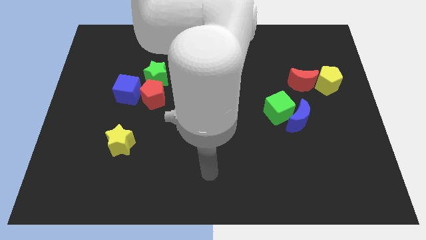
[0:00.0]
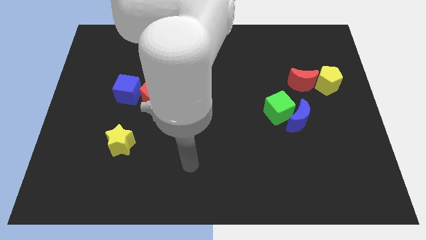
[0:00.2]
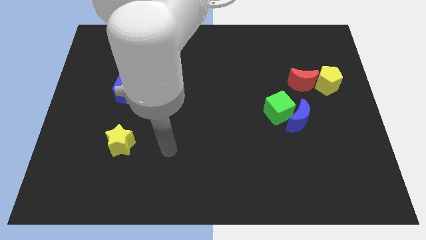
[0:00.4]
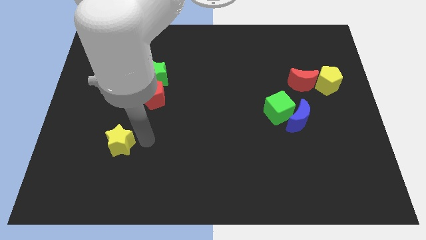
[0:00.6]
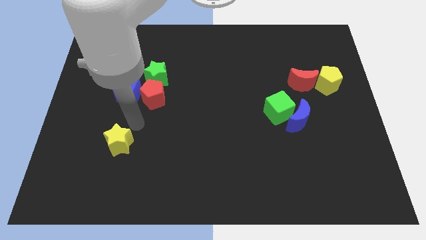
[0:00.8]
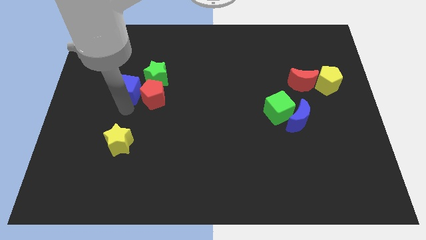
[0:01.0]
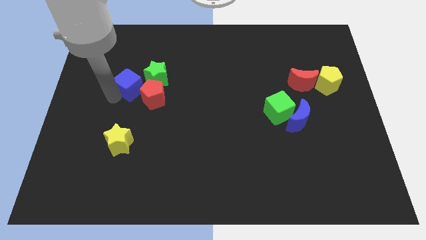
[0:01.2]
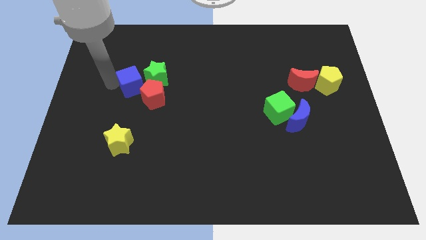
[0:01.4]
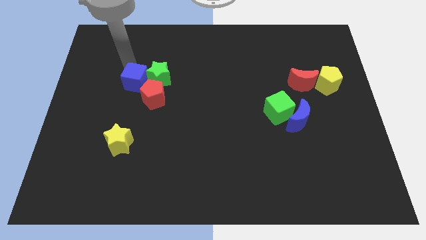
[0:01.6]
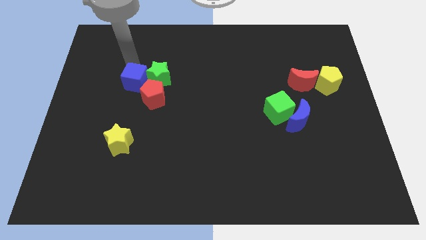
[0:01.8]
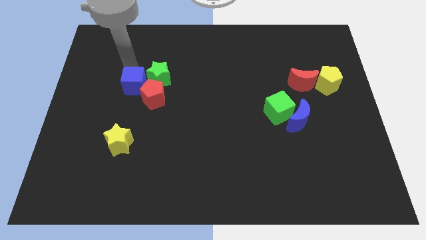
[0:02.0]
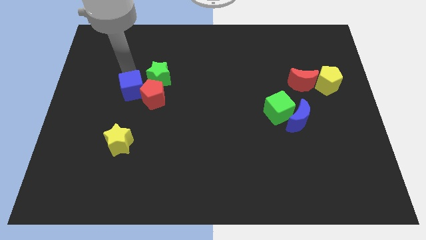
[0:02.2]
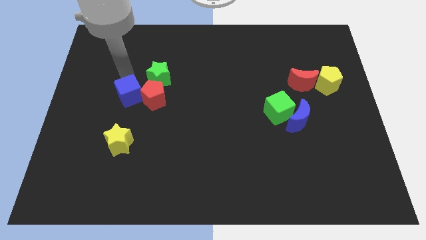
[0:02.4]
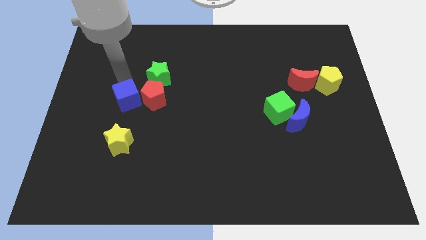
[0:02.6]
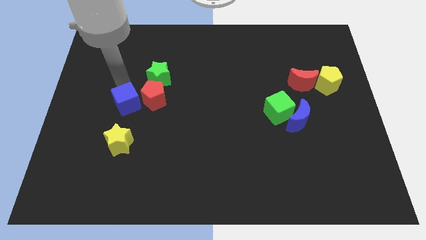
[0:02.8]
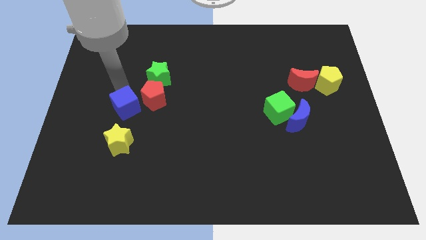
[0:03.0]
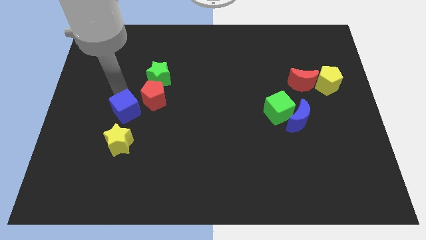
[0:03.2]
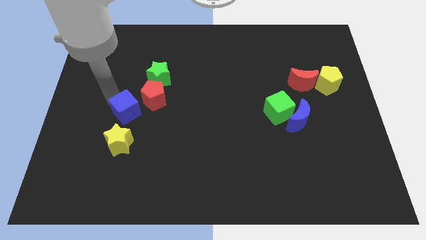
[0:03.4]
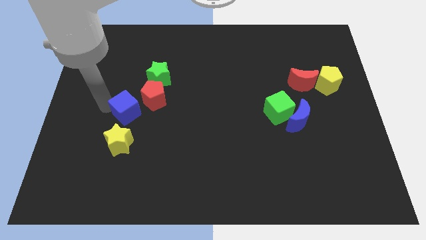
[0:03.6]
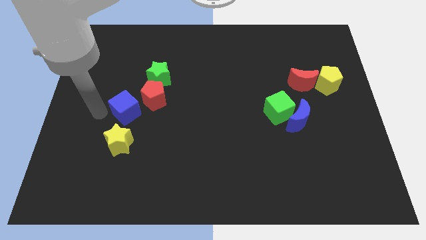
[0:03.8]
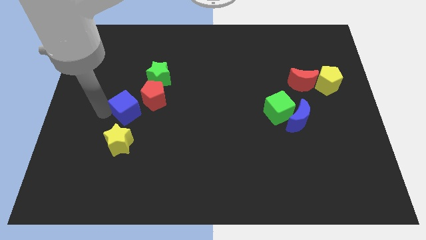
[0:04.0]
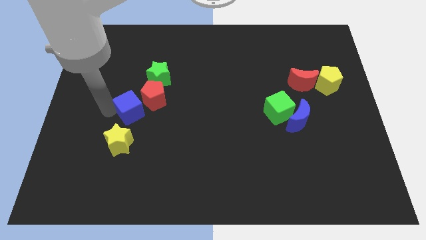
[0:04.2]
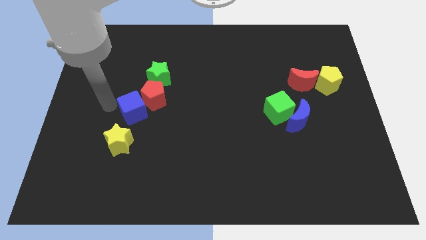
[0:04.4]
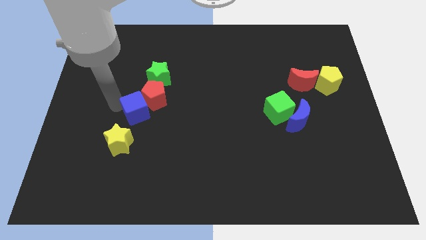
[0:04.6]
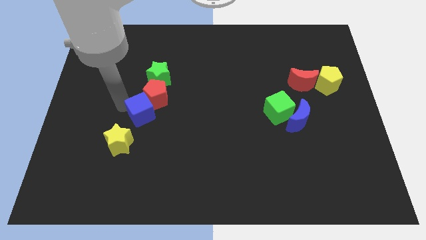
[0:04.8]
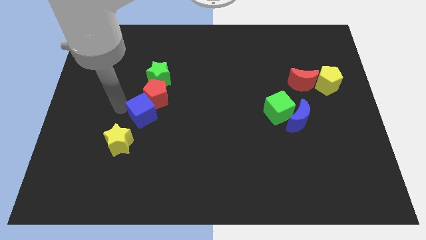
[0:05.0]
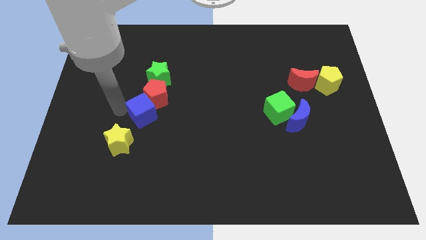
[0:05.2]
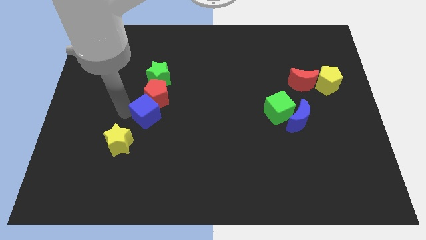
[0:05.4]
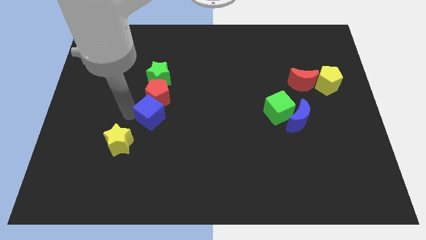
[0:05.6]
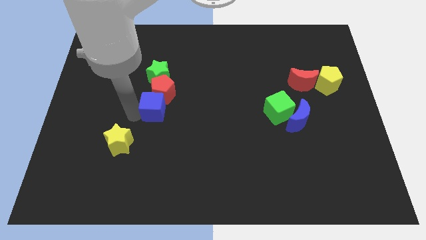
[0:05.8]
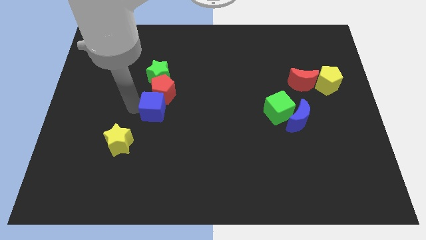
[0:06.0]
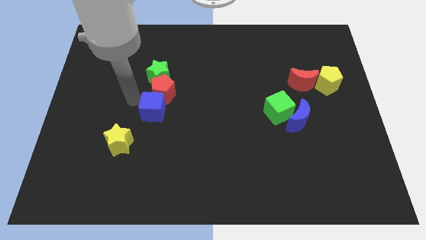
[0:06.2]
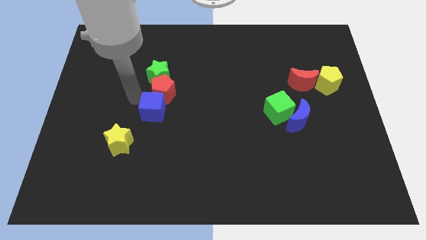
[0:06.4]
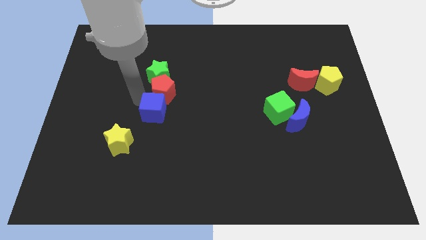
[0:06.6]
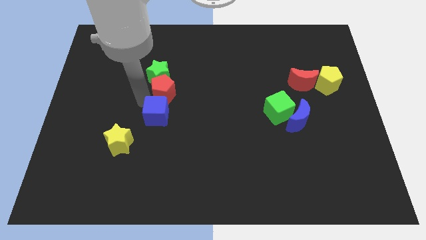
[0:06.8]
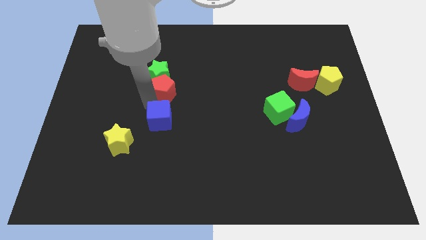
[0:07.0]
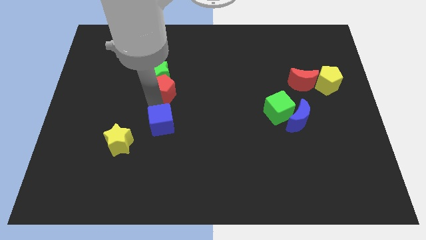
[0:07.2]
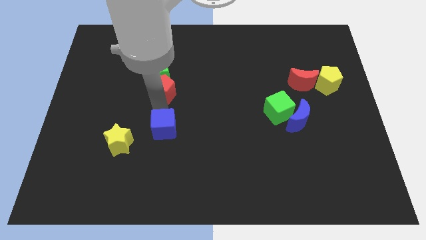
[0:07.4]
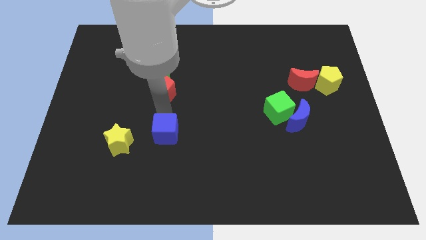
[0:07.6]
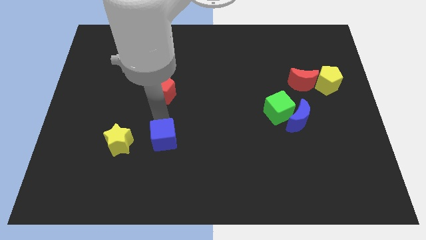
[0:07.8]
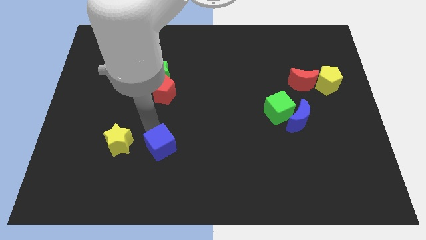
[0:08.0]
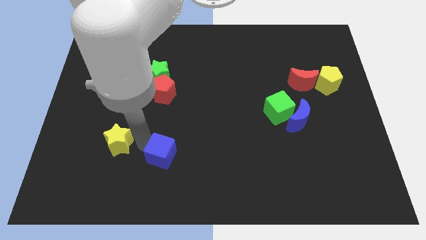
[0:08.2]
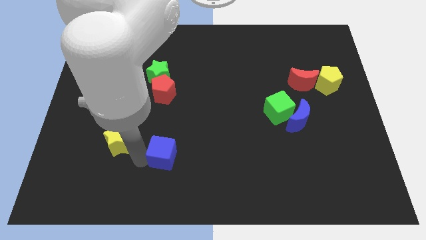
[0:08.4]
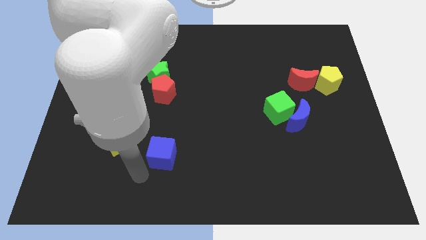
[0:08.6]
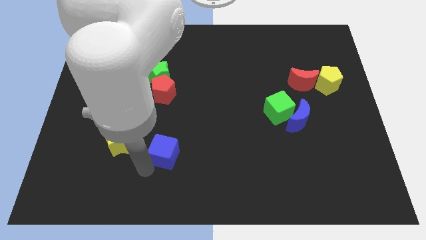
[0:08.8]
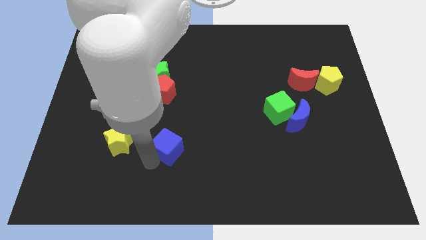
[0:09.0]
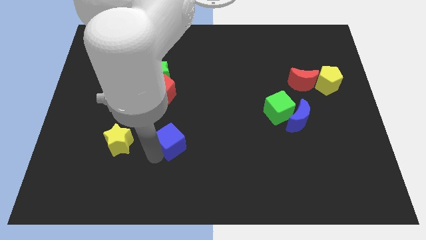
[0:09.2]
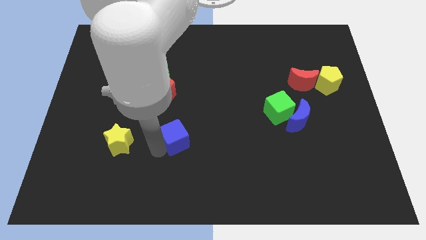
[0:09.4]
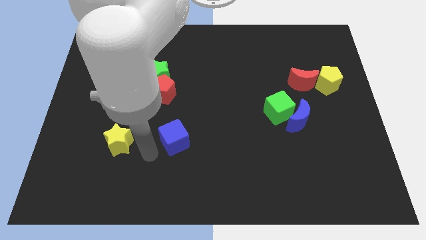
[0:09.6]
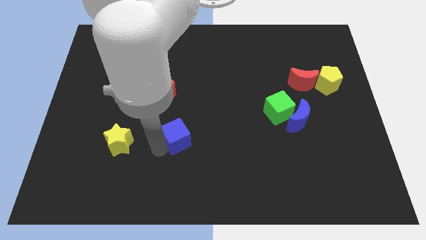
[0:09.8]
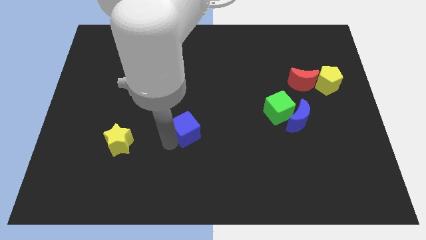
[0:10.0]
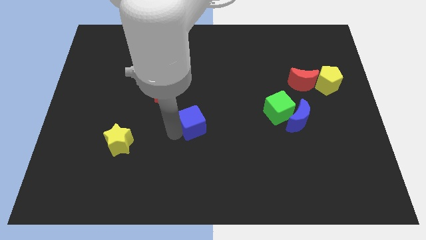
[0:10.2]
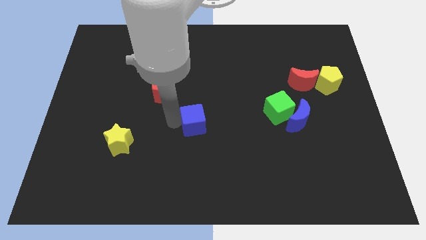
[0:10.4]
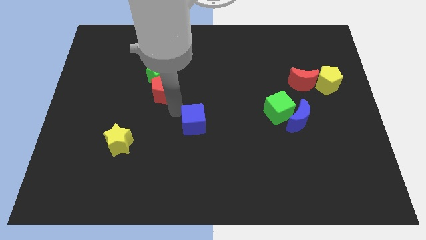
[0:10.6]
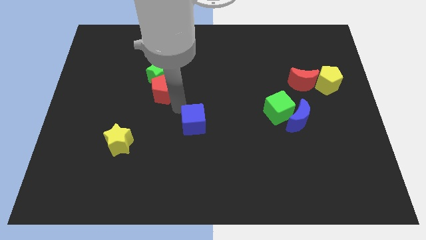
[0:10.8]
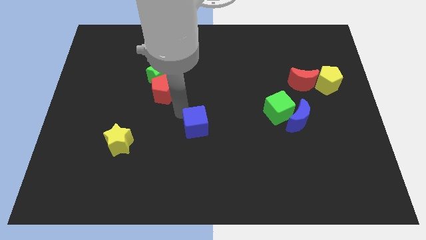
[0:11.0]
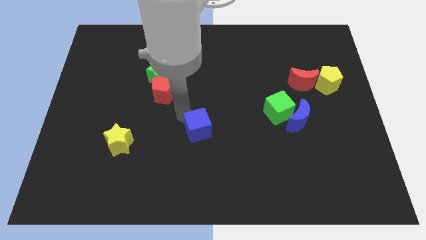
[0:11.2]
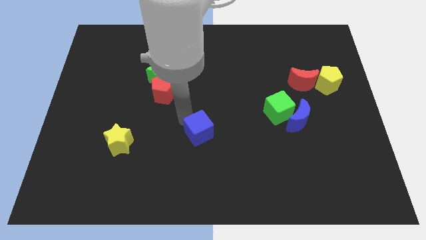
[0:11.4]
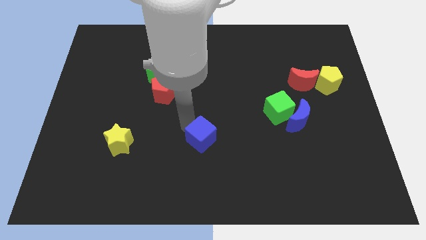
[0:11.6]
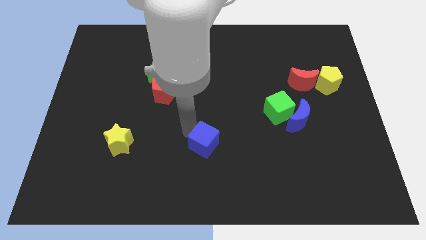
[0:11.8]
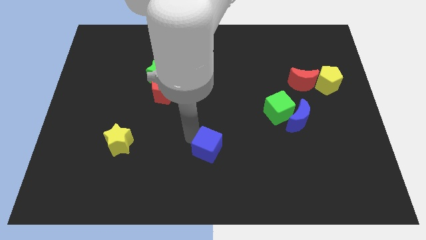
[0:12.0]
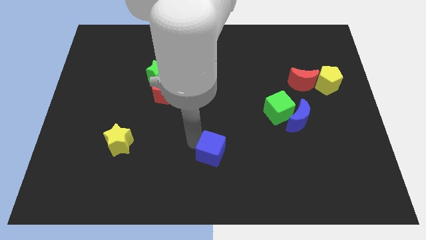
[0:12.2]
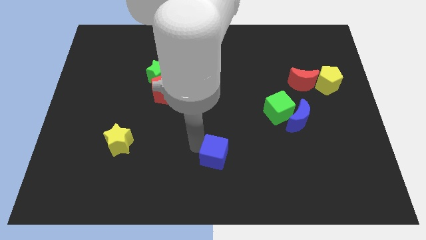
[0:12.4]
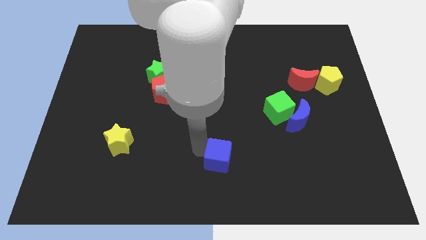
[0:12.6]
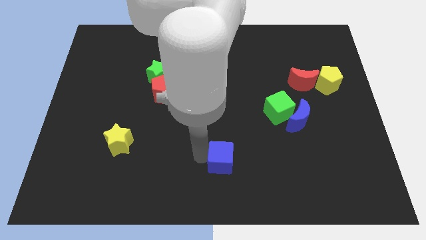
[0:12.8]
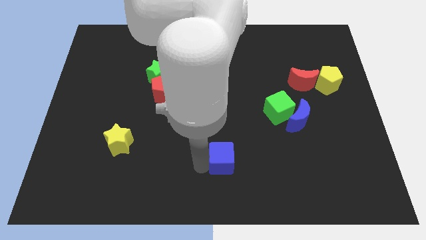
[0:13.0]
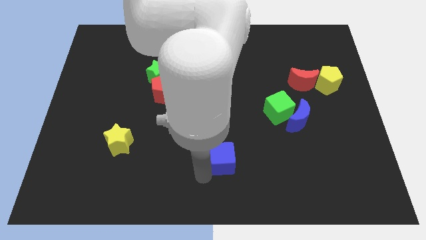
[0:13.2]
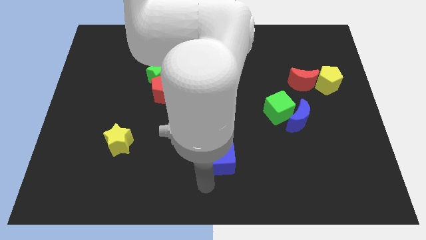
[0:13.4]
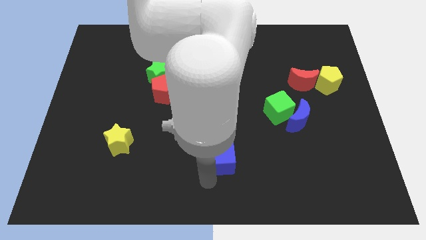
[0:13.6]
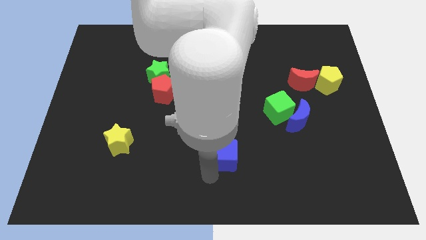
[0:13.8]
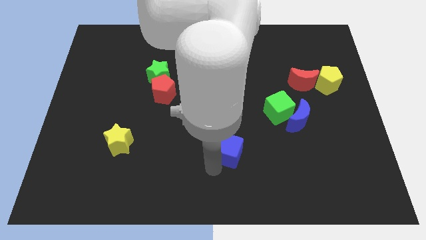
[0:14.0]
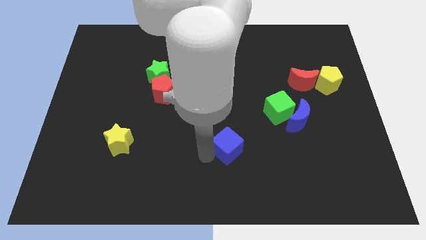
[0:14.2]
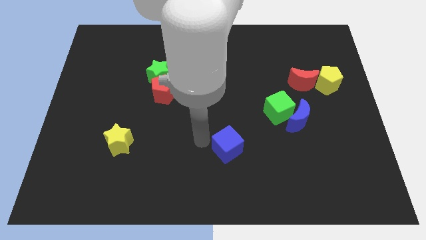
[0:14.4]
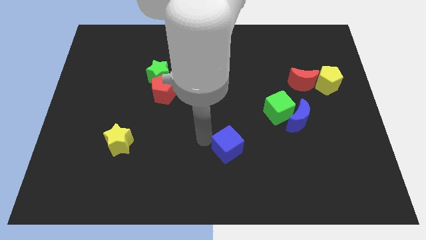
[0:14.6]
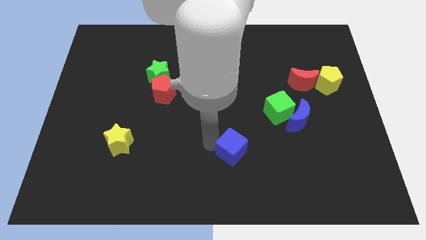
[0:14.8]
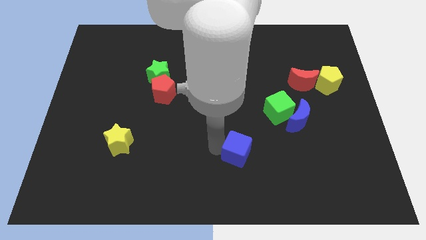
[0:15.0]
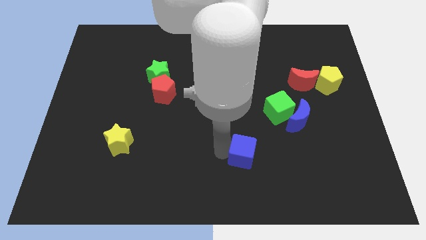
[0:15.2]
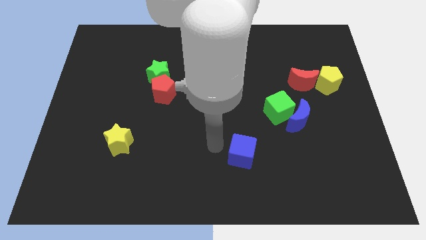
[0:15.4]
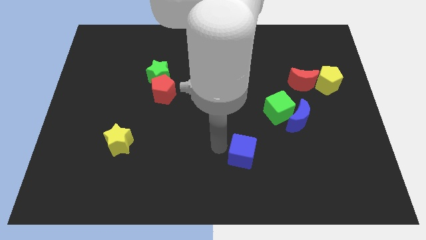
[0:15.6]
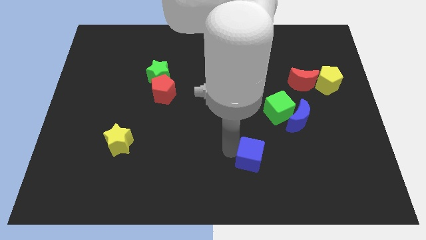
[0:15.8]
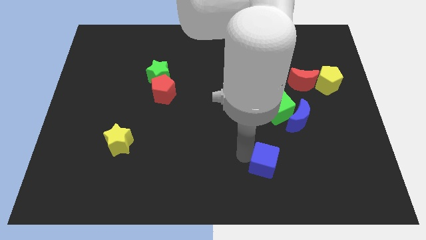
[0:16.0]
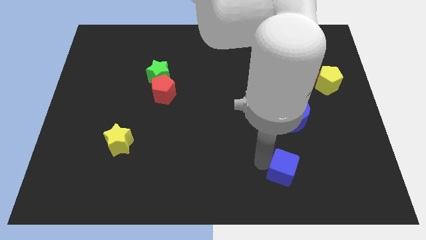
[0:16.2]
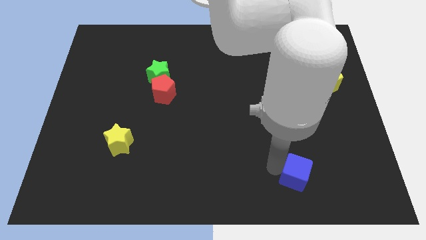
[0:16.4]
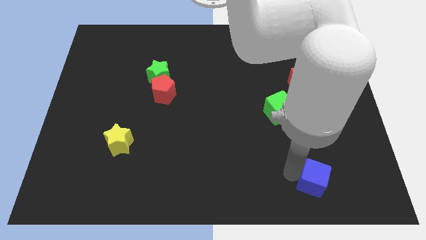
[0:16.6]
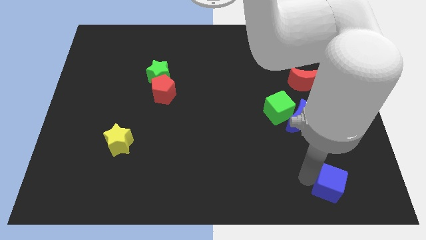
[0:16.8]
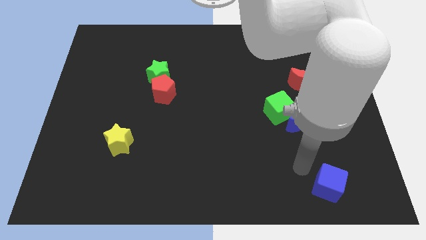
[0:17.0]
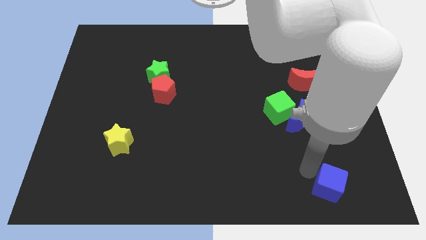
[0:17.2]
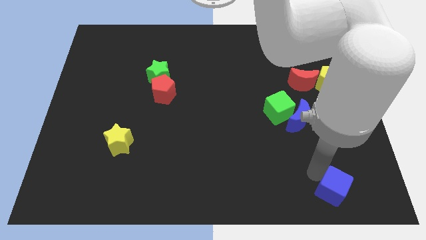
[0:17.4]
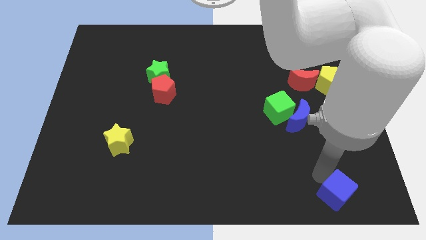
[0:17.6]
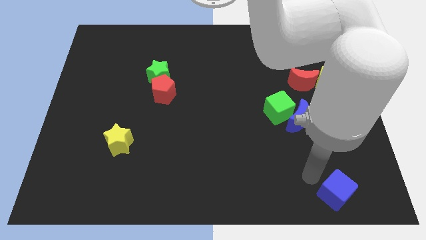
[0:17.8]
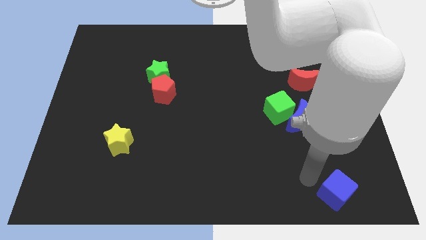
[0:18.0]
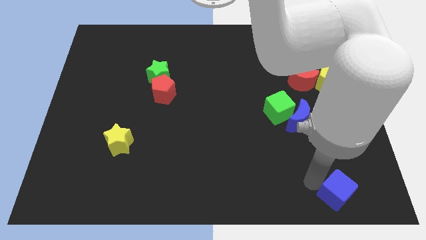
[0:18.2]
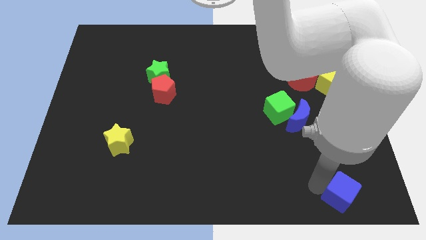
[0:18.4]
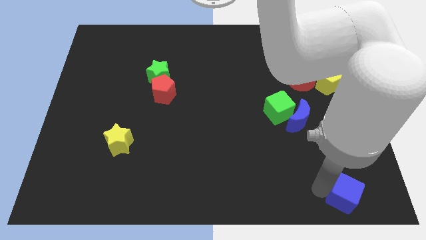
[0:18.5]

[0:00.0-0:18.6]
slide the blue cube to the bottom right
